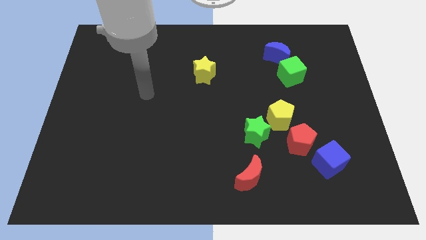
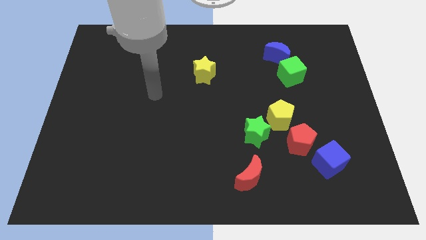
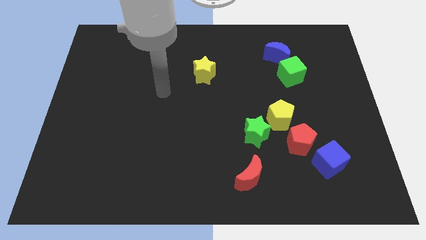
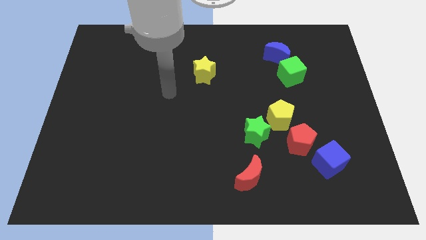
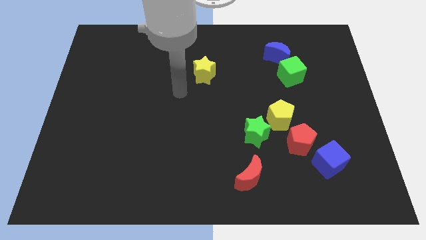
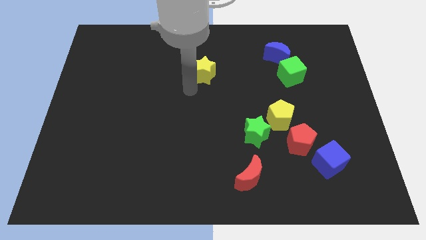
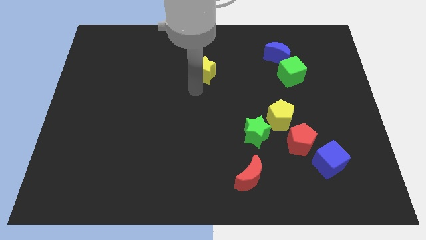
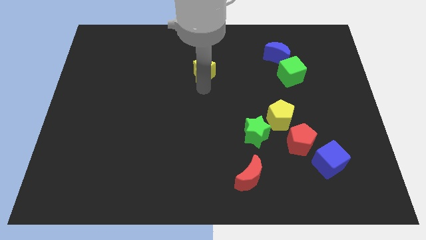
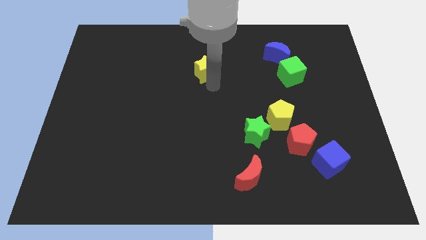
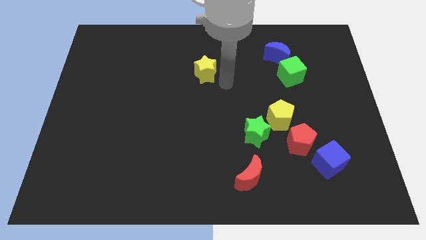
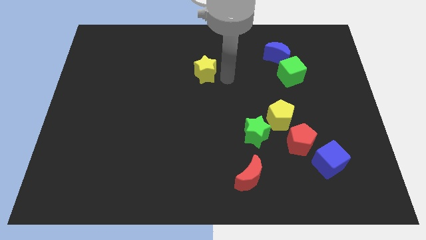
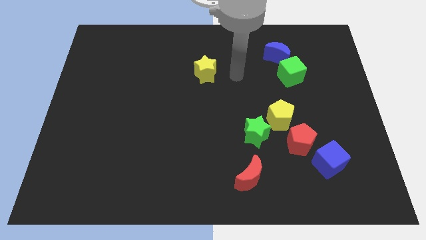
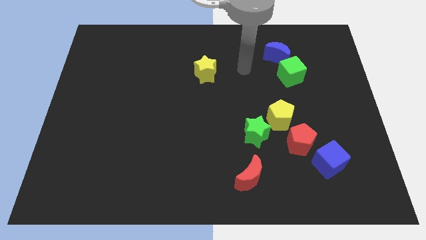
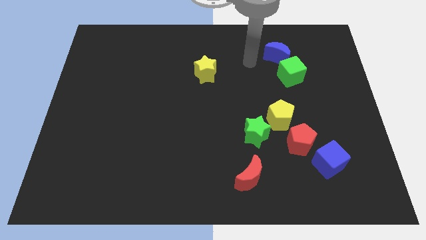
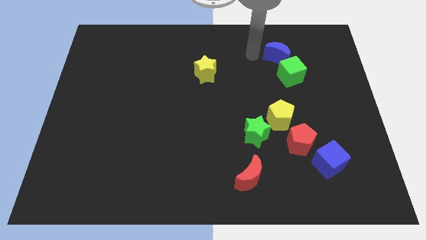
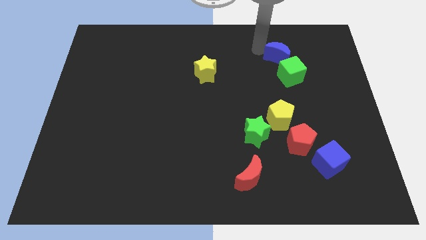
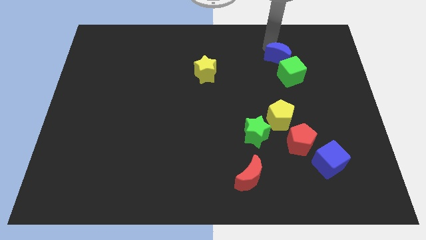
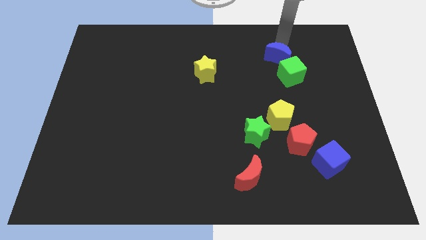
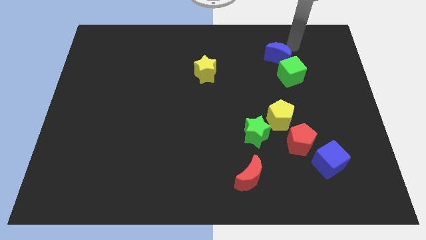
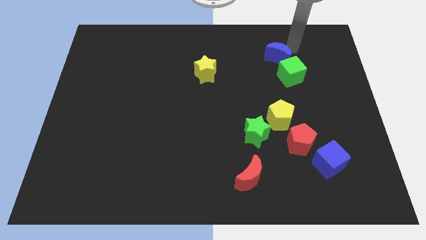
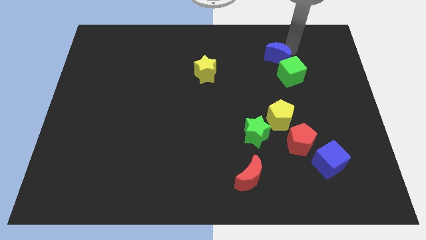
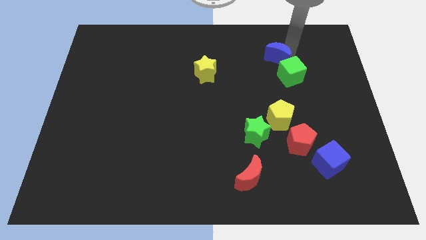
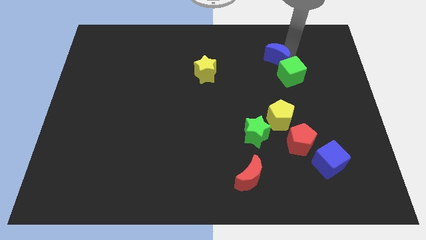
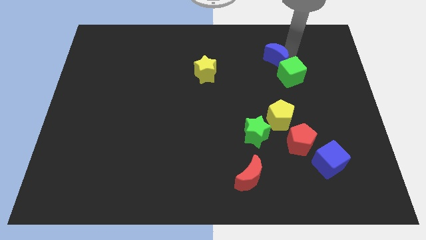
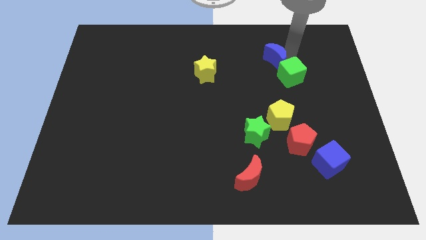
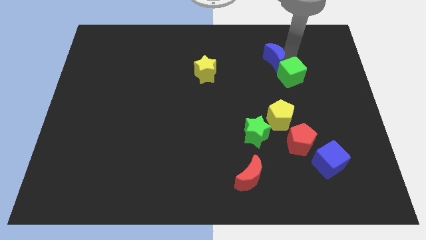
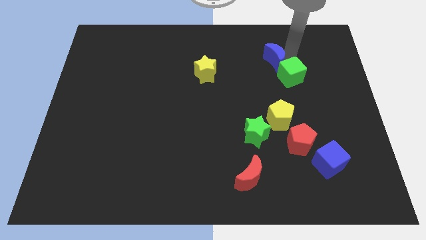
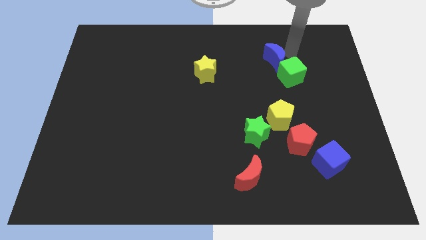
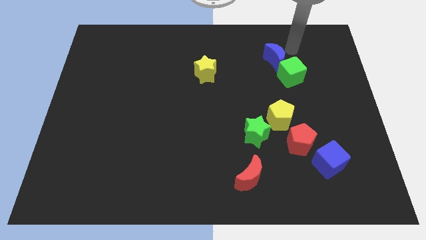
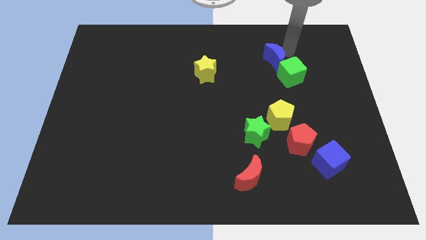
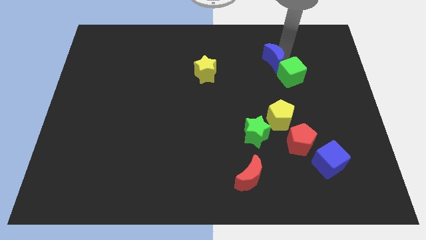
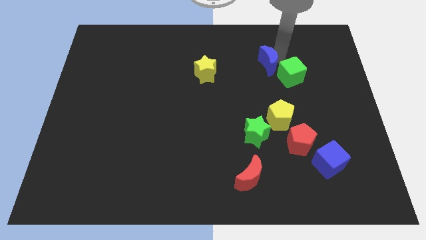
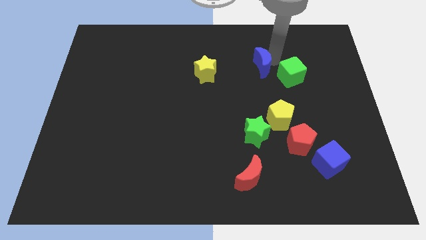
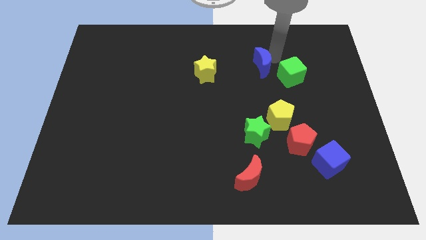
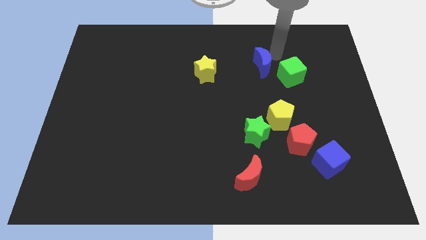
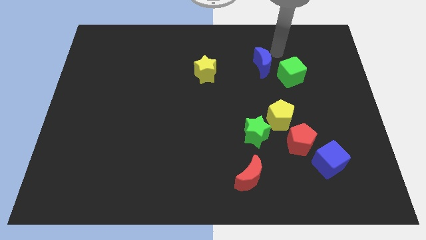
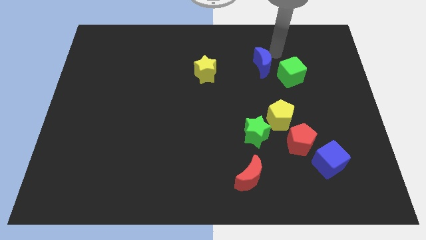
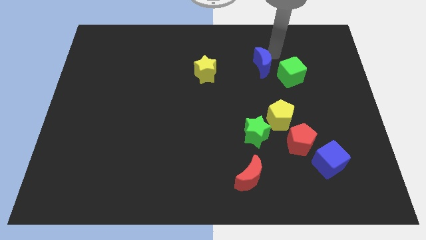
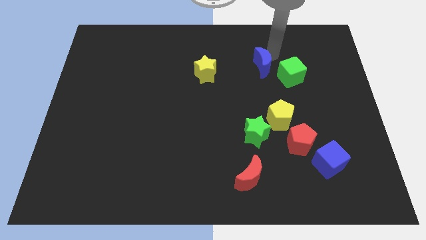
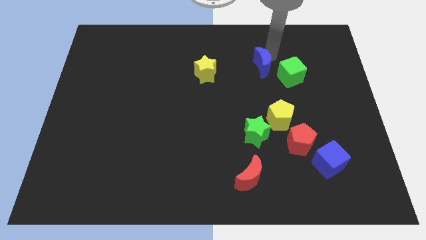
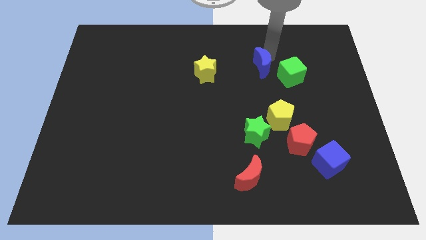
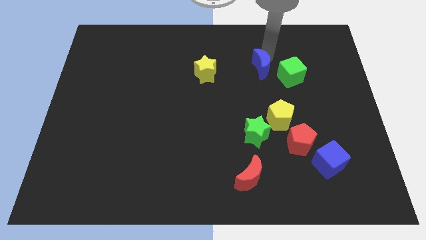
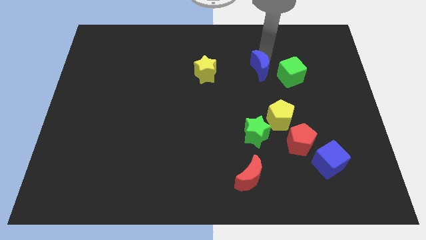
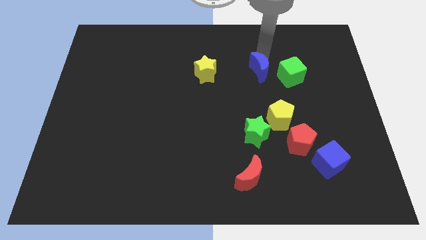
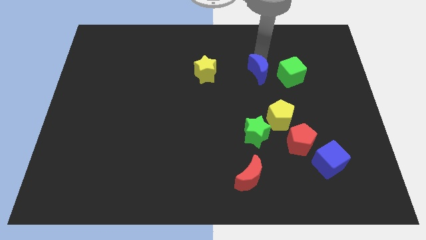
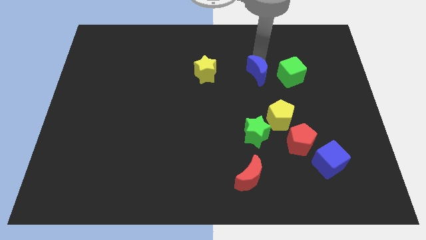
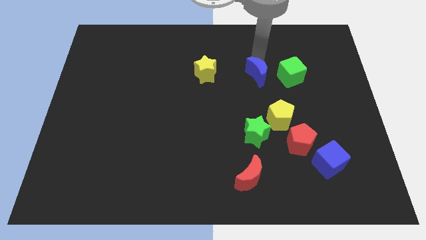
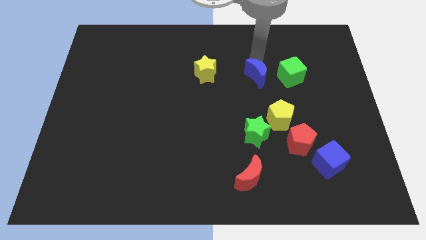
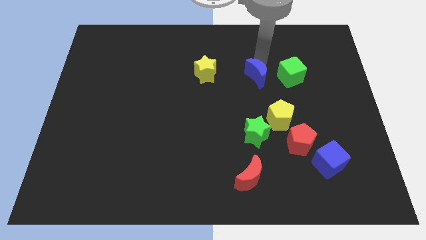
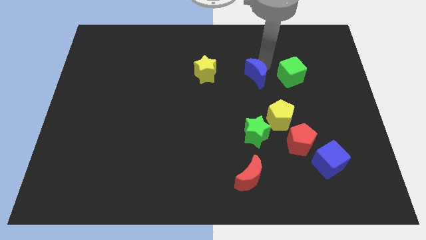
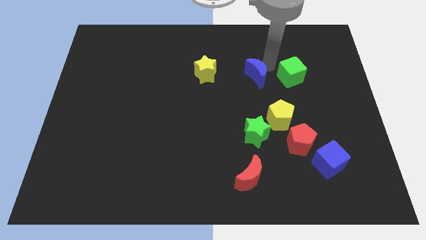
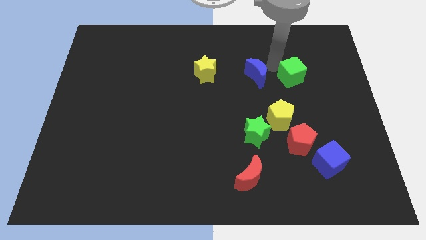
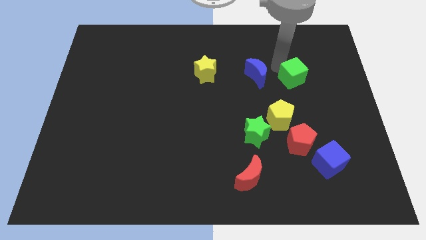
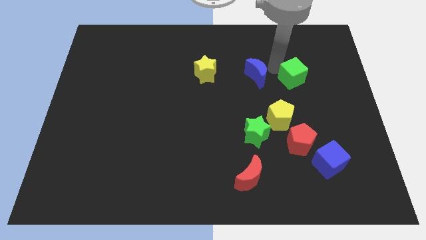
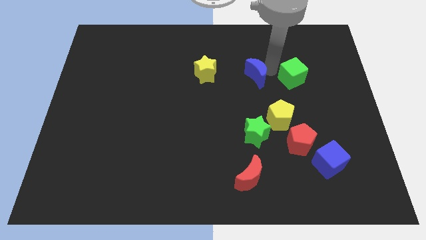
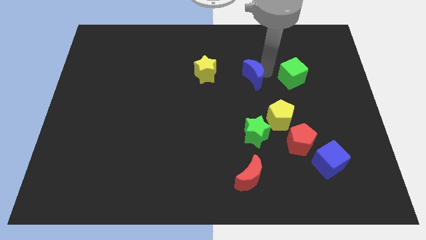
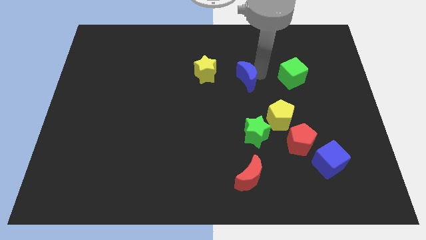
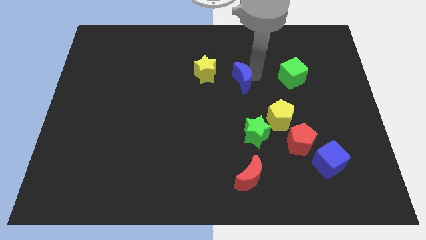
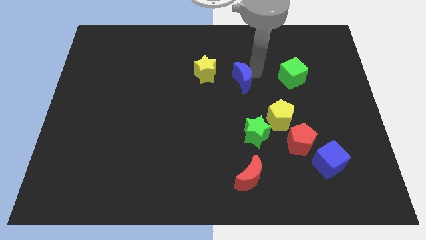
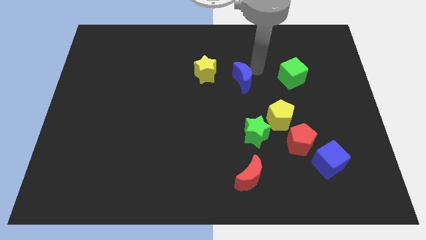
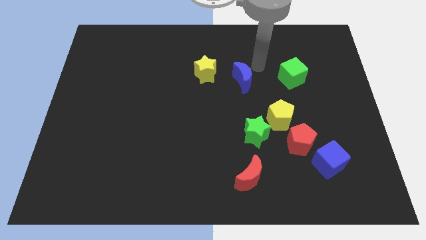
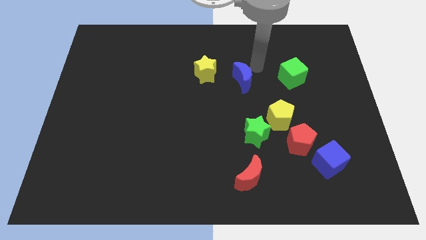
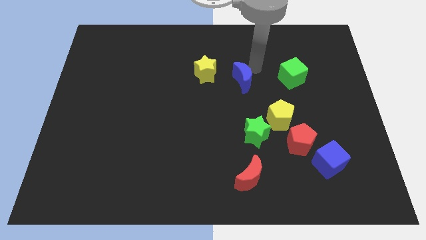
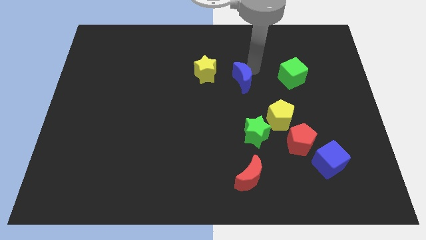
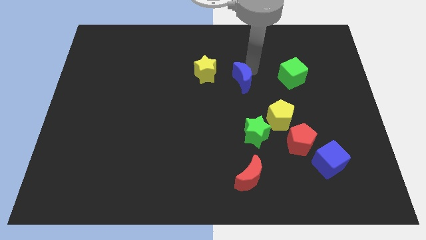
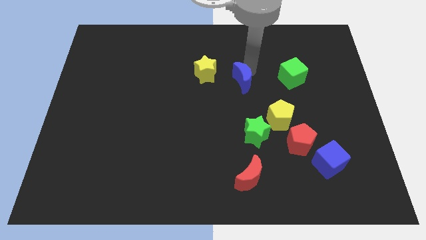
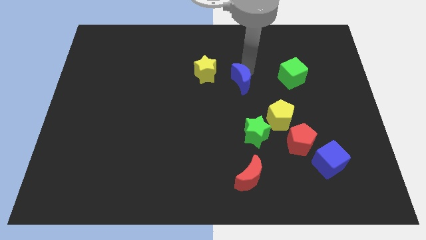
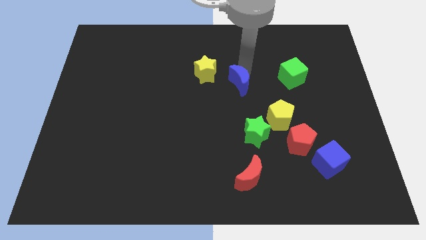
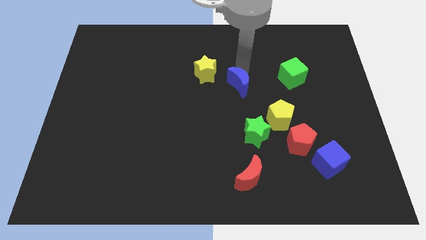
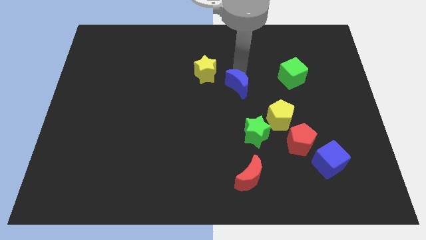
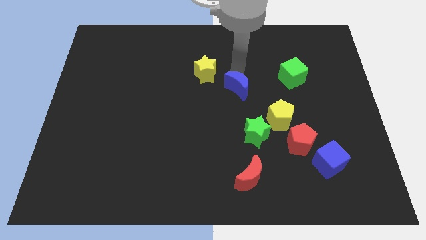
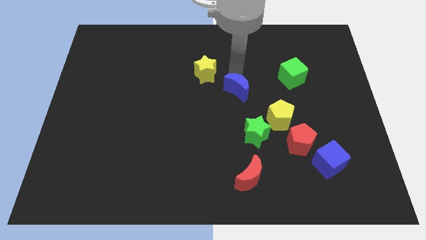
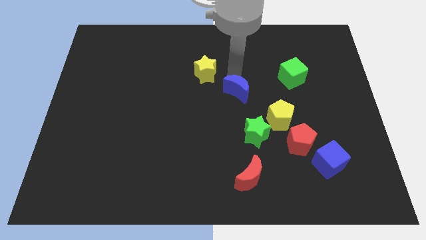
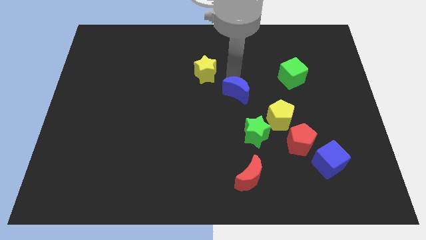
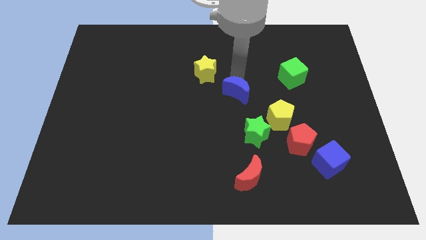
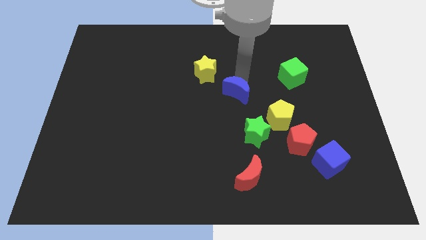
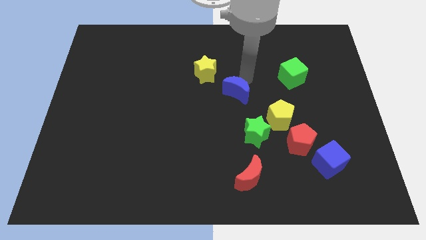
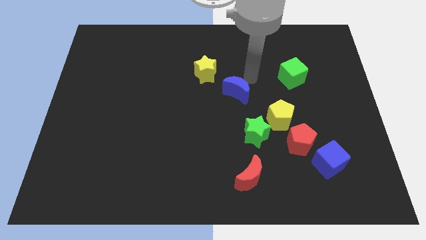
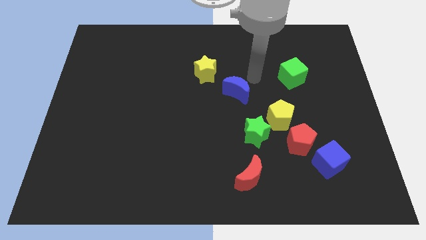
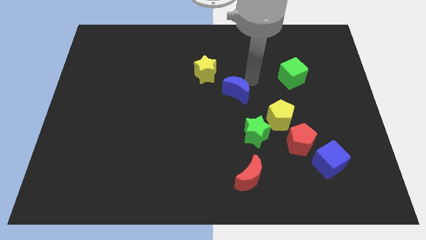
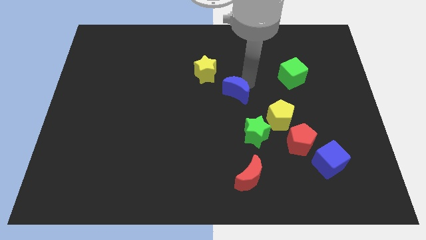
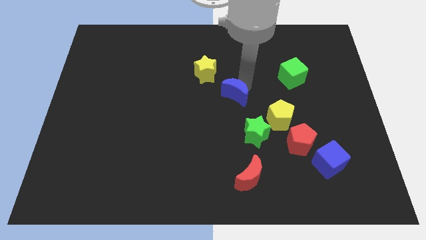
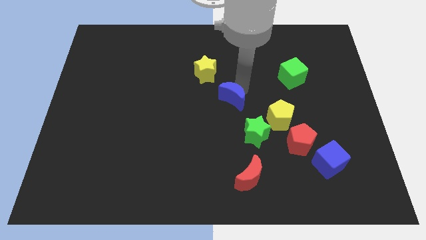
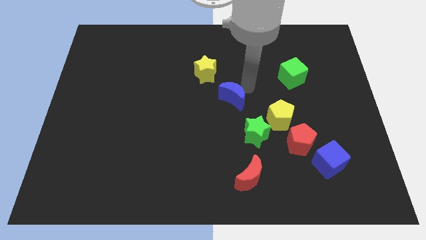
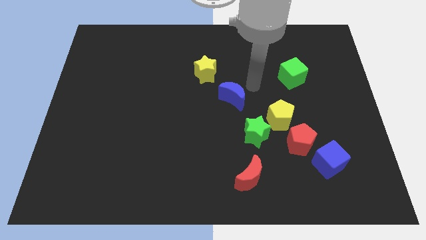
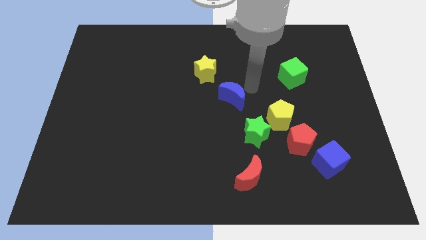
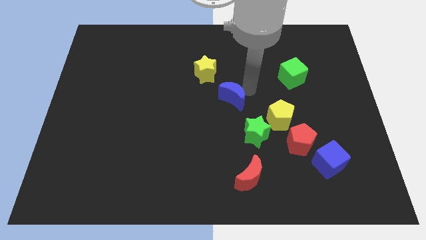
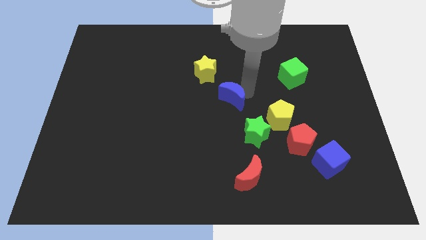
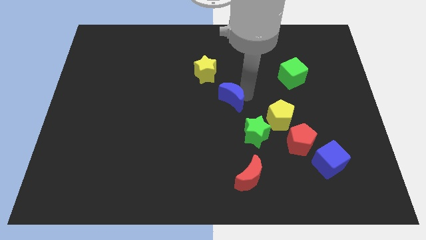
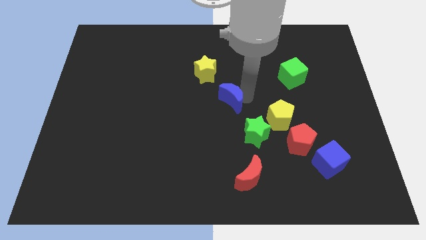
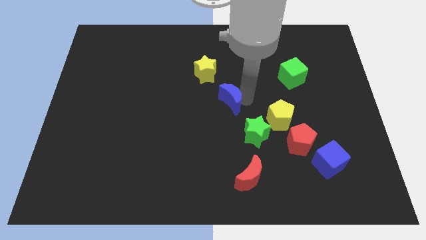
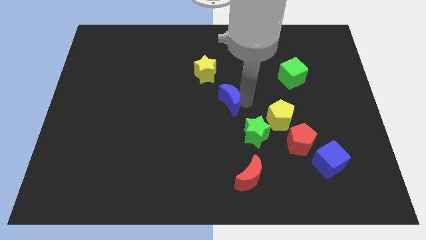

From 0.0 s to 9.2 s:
slide the blue moon downwards and left diagonally
